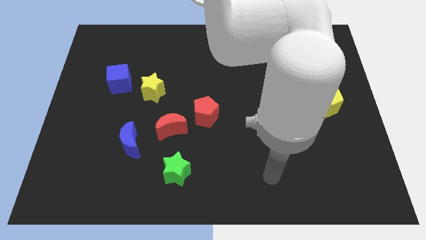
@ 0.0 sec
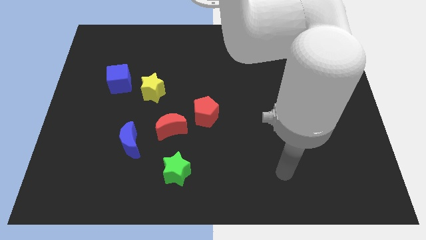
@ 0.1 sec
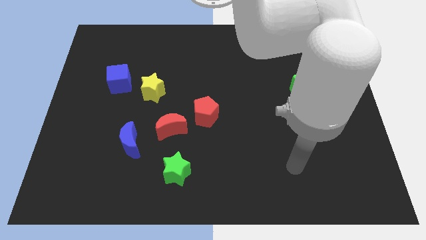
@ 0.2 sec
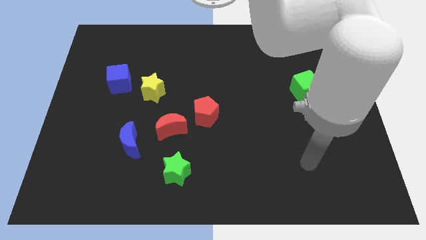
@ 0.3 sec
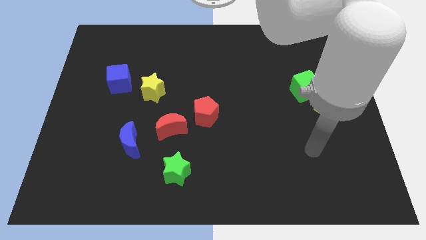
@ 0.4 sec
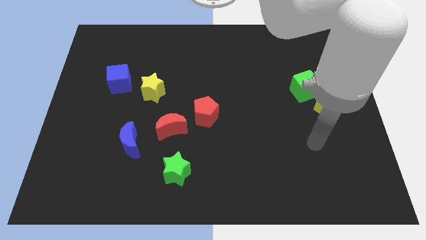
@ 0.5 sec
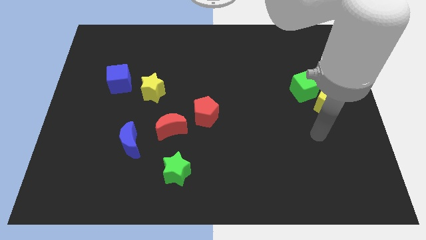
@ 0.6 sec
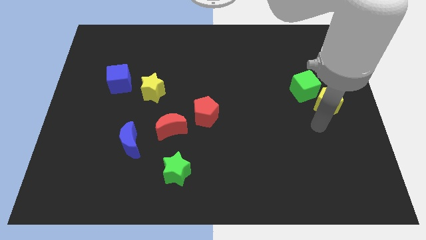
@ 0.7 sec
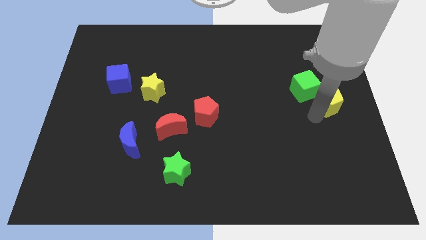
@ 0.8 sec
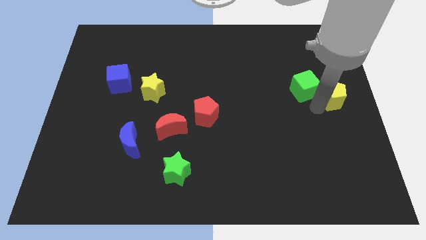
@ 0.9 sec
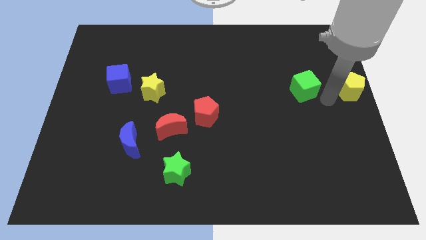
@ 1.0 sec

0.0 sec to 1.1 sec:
pull the green cube apart from the yellow pentagon

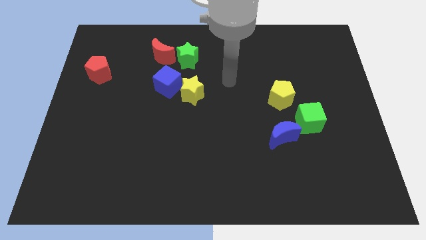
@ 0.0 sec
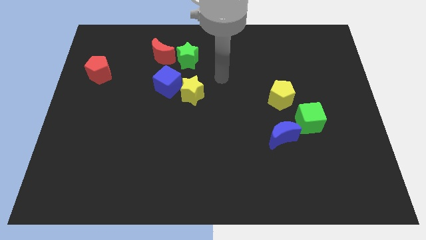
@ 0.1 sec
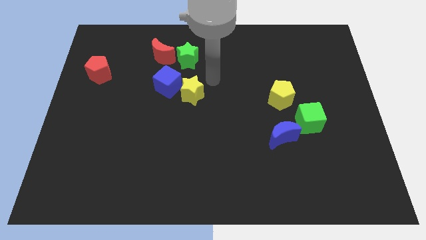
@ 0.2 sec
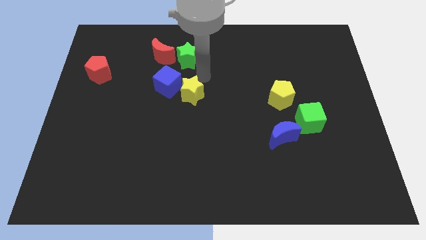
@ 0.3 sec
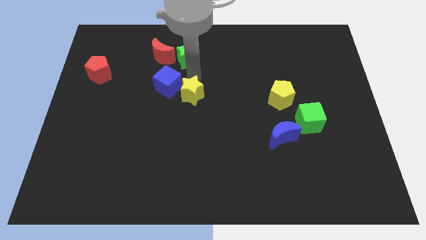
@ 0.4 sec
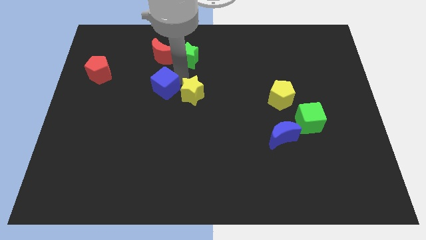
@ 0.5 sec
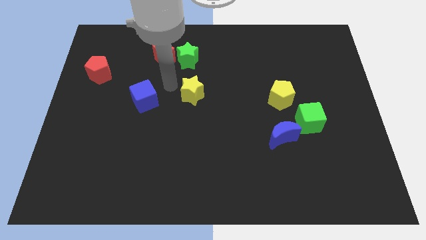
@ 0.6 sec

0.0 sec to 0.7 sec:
move the yellow star away from the blue cube

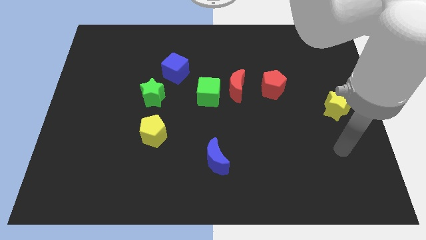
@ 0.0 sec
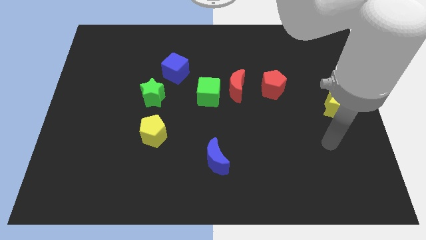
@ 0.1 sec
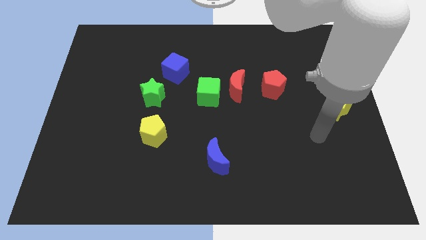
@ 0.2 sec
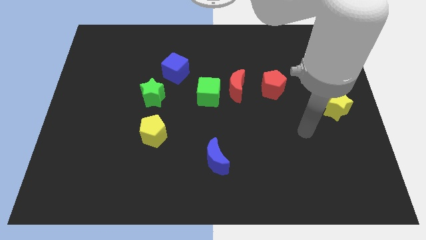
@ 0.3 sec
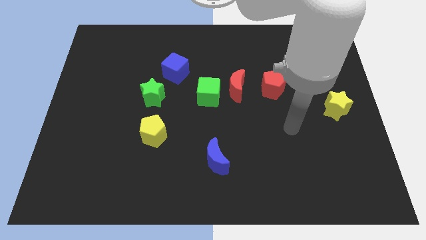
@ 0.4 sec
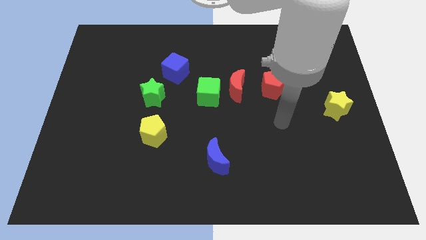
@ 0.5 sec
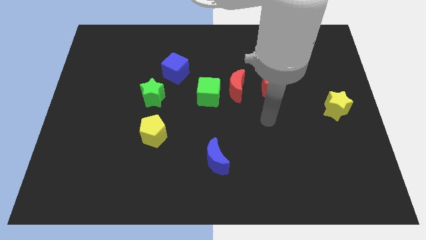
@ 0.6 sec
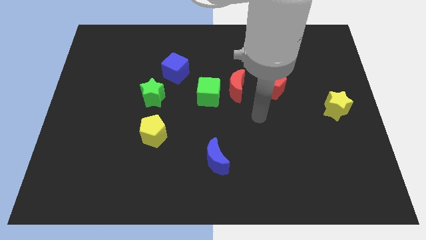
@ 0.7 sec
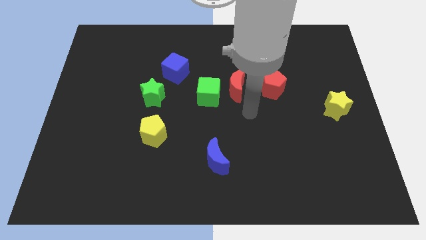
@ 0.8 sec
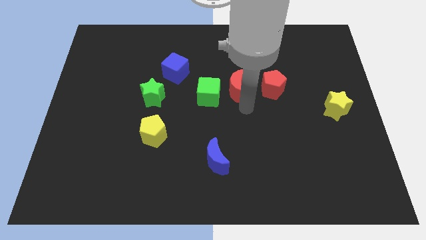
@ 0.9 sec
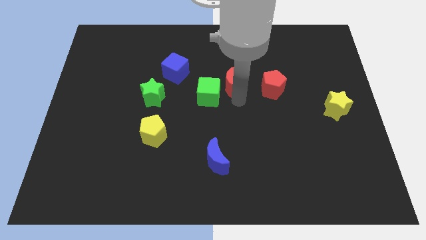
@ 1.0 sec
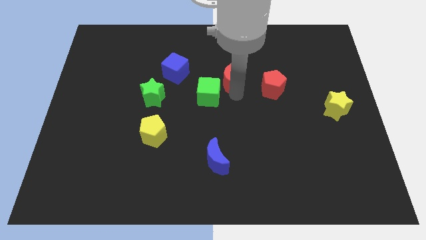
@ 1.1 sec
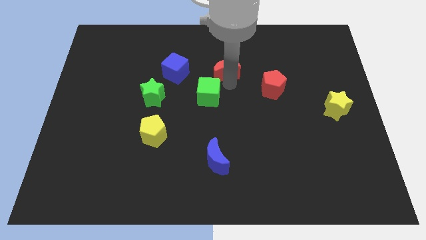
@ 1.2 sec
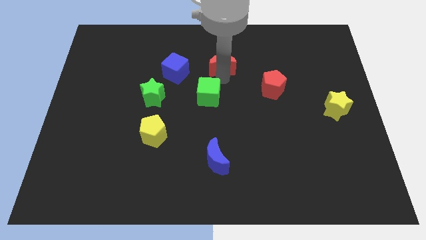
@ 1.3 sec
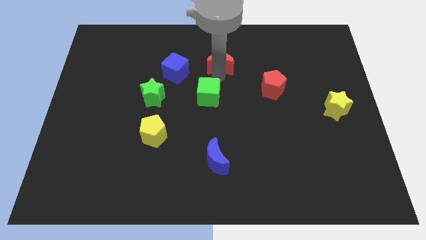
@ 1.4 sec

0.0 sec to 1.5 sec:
separate the green cube from the red moon

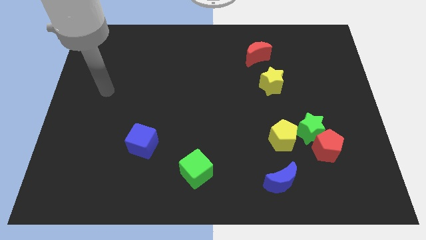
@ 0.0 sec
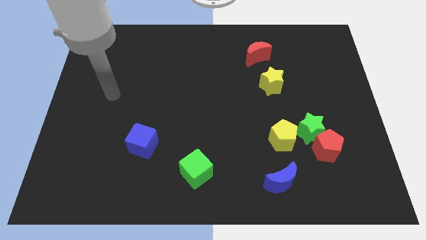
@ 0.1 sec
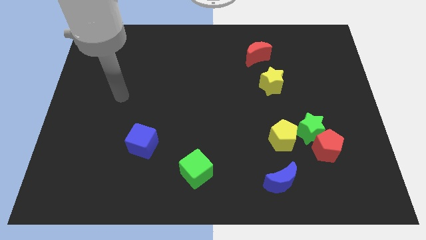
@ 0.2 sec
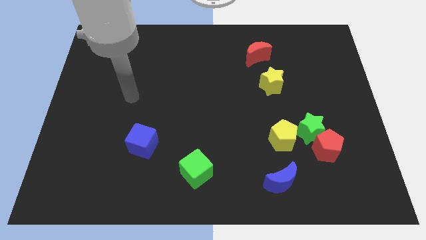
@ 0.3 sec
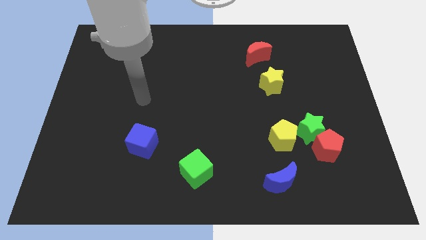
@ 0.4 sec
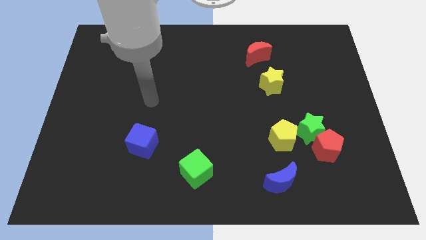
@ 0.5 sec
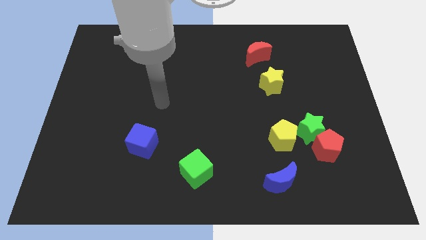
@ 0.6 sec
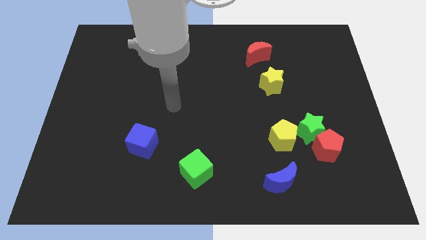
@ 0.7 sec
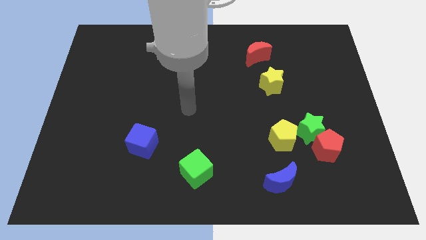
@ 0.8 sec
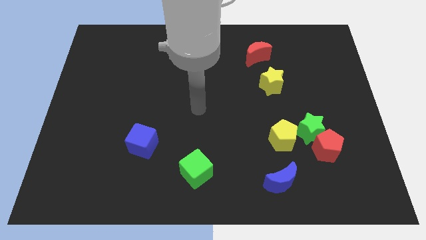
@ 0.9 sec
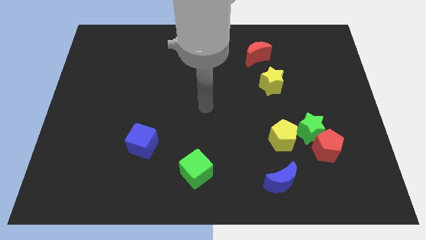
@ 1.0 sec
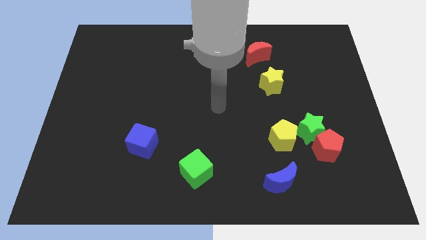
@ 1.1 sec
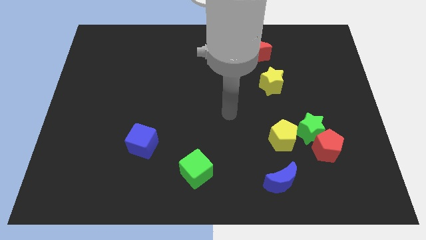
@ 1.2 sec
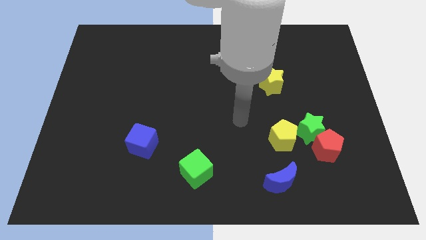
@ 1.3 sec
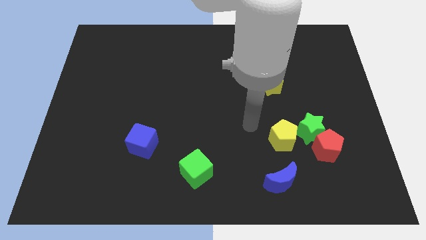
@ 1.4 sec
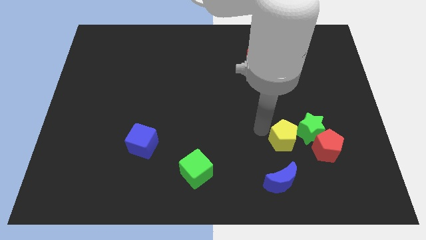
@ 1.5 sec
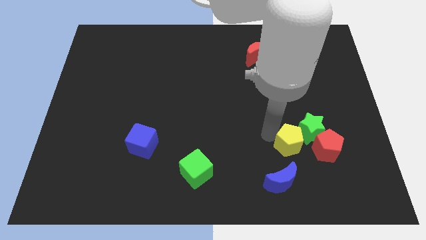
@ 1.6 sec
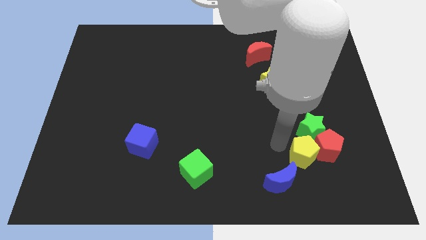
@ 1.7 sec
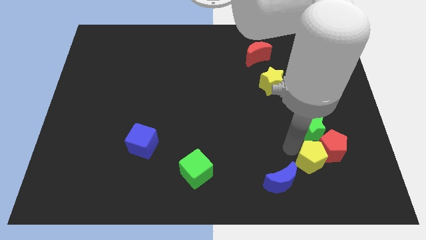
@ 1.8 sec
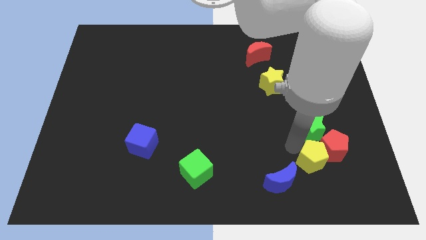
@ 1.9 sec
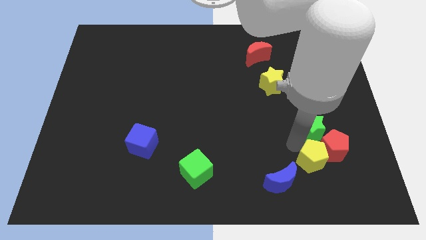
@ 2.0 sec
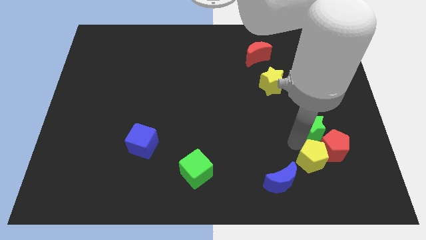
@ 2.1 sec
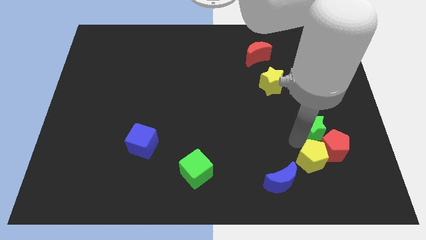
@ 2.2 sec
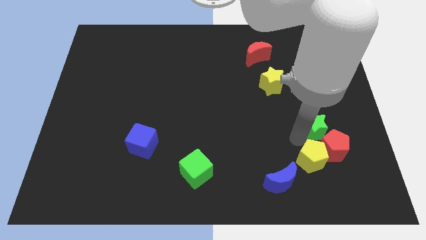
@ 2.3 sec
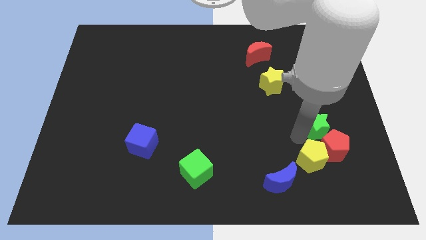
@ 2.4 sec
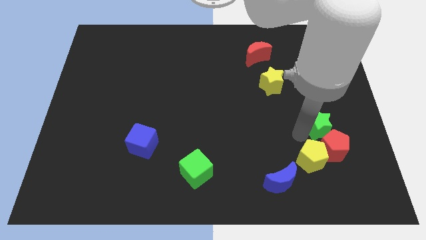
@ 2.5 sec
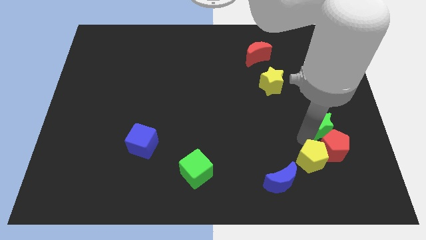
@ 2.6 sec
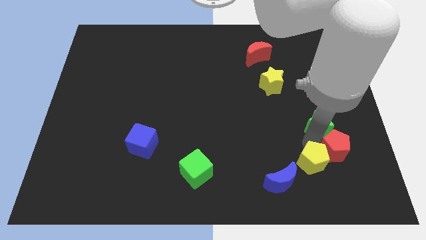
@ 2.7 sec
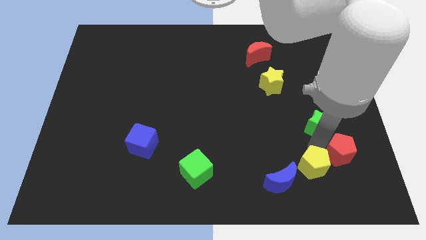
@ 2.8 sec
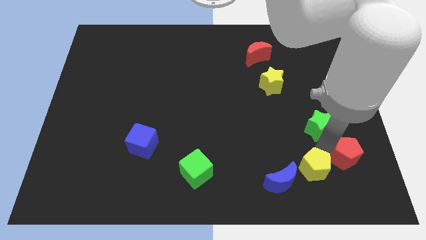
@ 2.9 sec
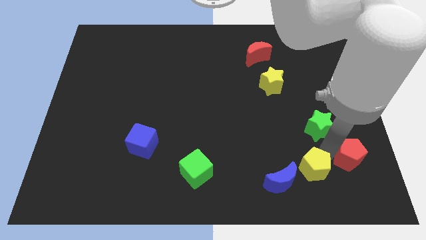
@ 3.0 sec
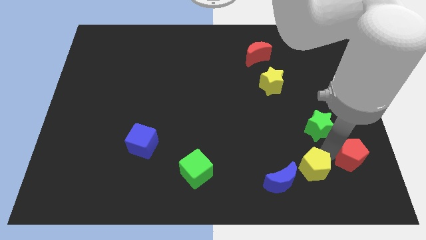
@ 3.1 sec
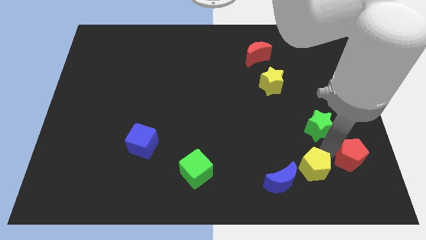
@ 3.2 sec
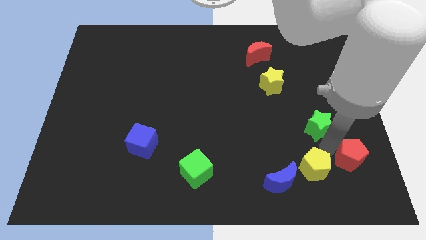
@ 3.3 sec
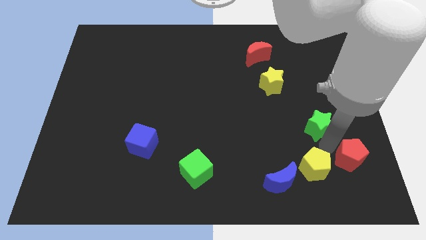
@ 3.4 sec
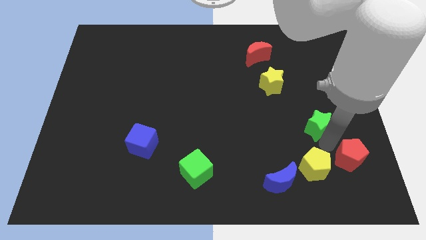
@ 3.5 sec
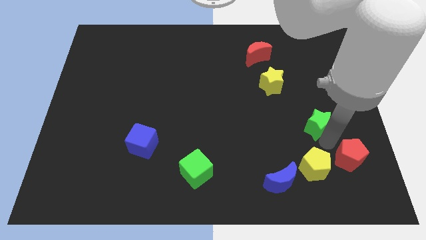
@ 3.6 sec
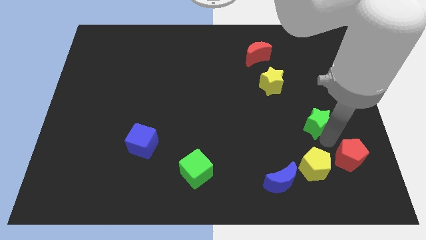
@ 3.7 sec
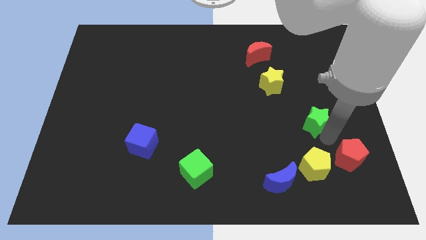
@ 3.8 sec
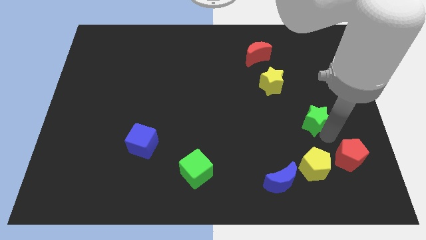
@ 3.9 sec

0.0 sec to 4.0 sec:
pull the green star apart from the red pentagon and yellow pentagon

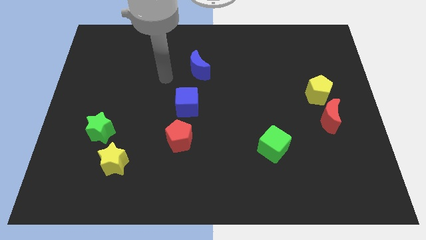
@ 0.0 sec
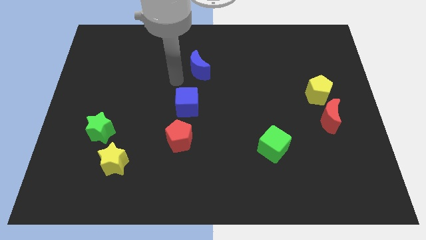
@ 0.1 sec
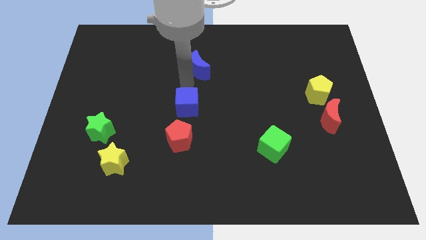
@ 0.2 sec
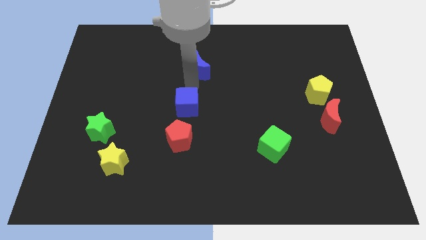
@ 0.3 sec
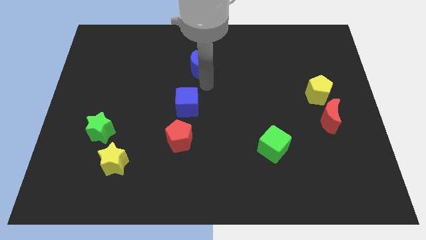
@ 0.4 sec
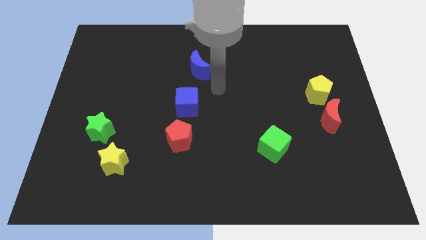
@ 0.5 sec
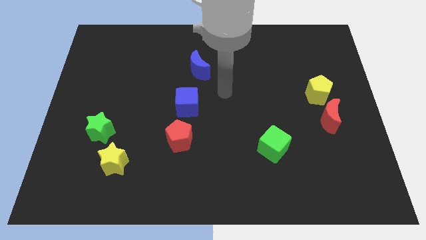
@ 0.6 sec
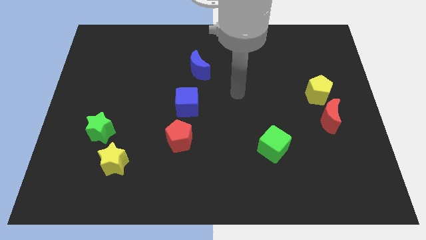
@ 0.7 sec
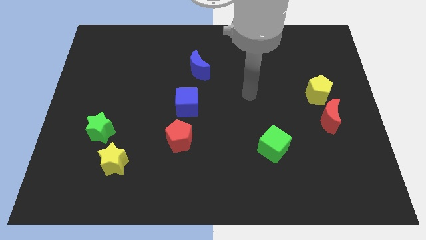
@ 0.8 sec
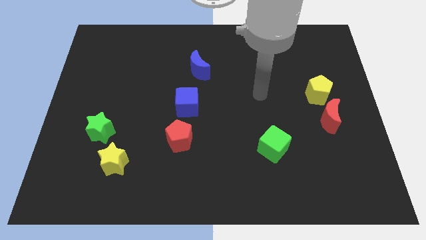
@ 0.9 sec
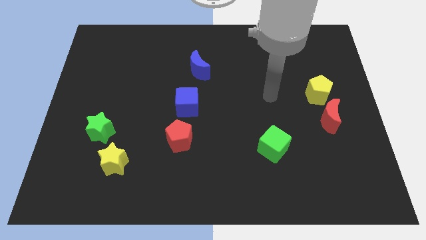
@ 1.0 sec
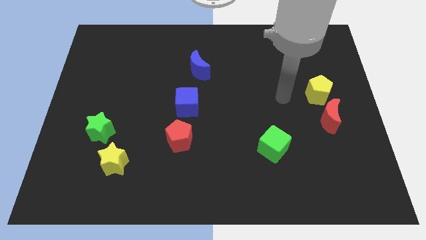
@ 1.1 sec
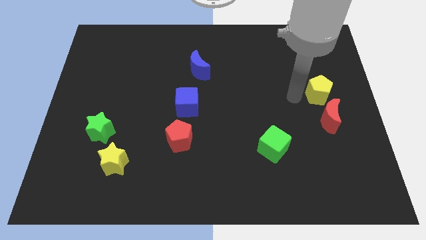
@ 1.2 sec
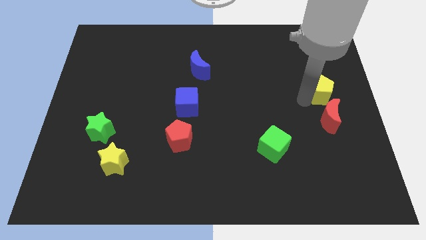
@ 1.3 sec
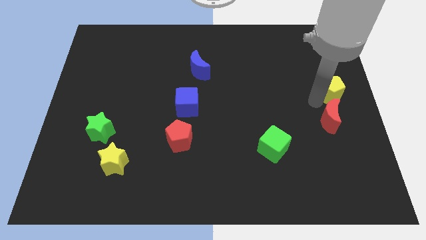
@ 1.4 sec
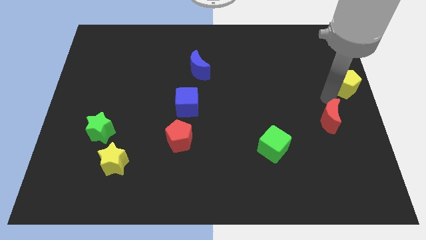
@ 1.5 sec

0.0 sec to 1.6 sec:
move the red moon away from the yellow pentagon

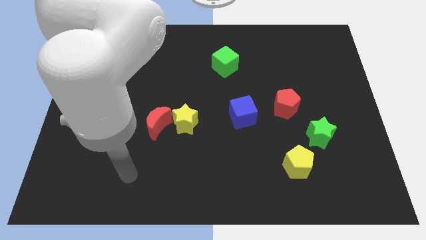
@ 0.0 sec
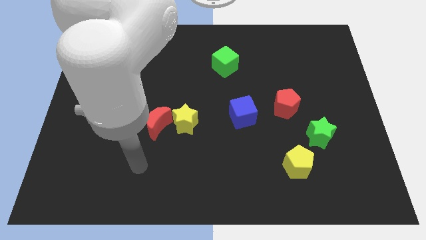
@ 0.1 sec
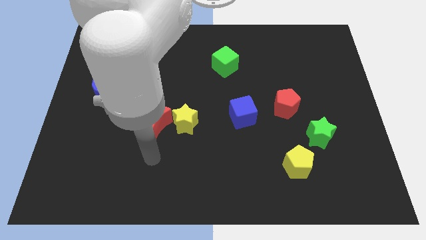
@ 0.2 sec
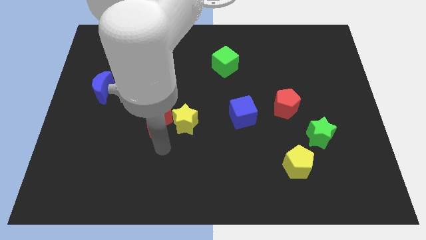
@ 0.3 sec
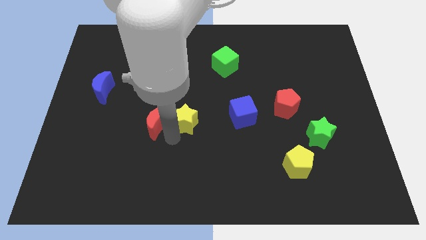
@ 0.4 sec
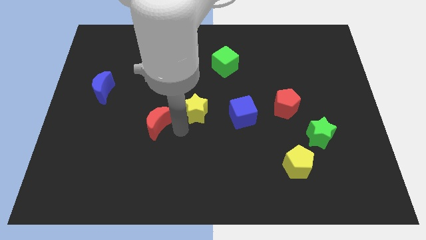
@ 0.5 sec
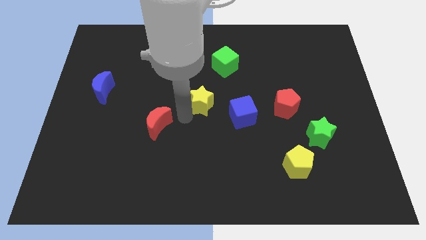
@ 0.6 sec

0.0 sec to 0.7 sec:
separate the red moon from the yellow star
